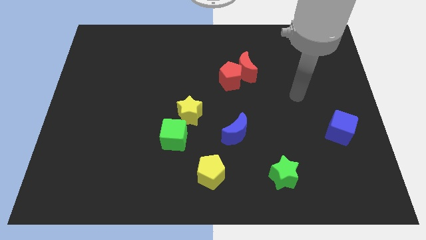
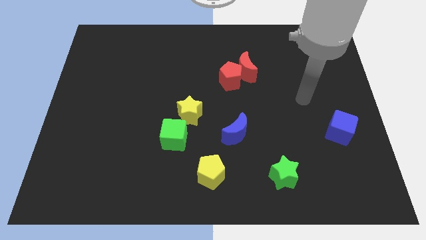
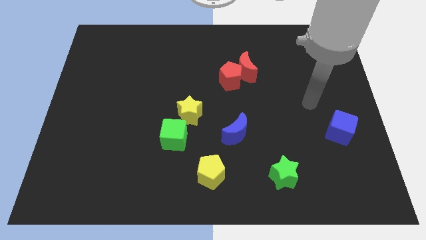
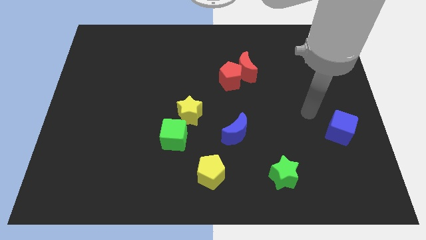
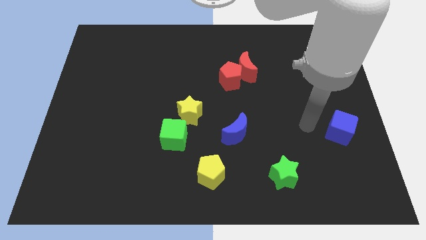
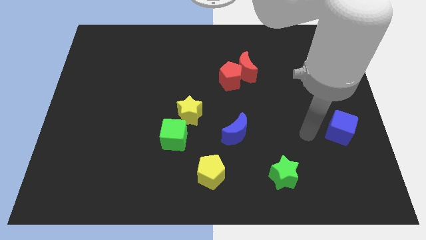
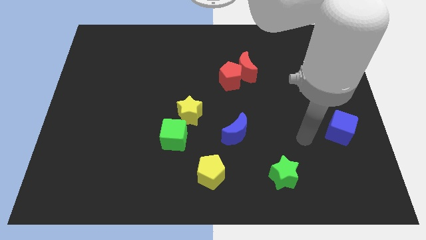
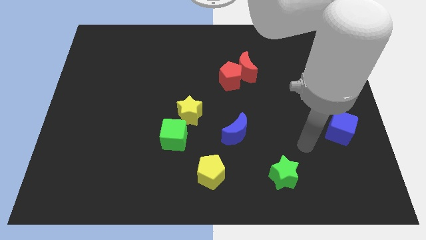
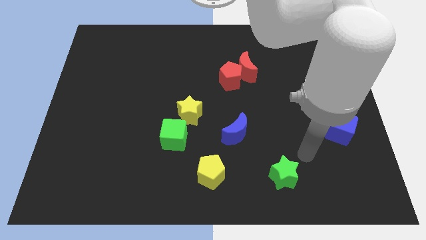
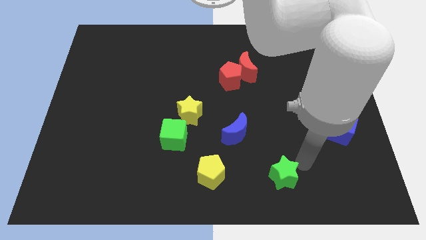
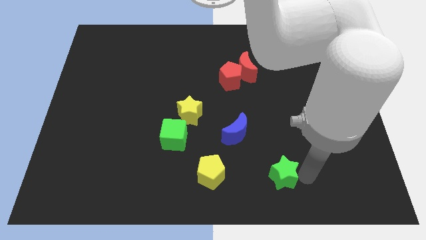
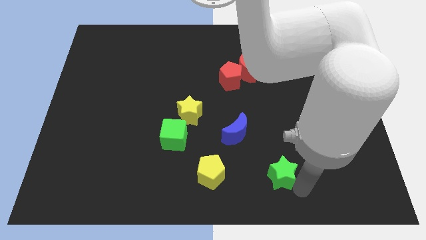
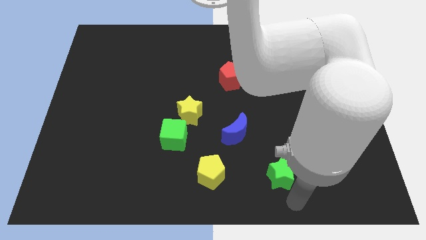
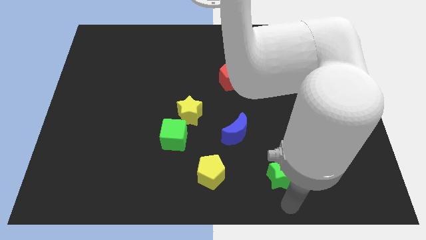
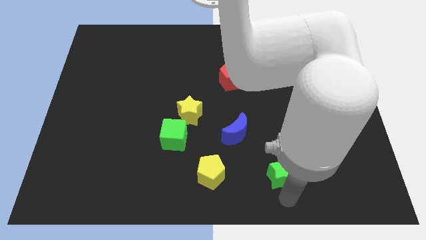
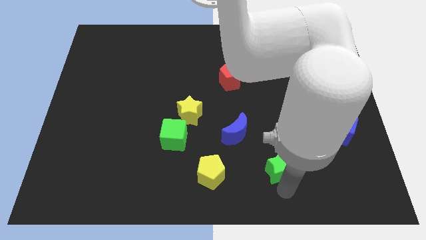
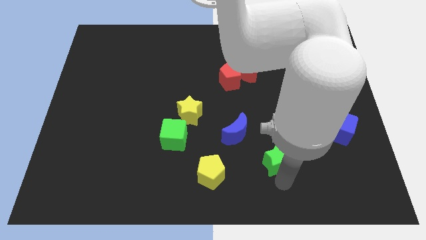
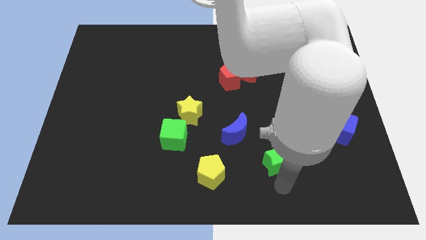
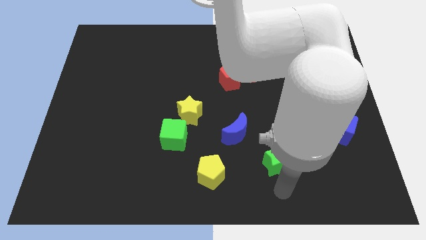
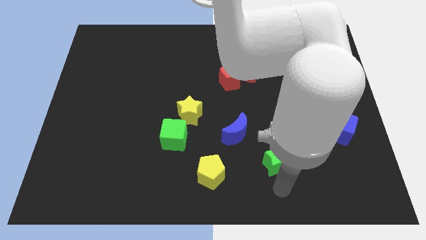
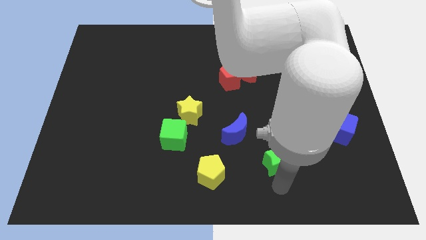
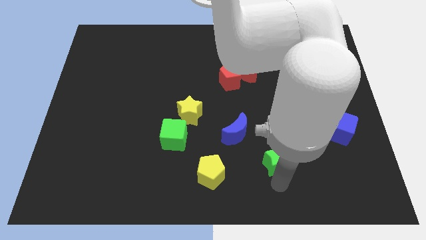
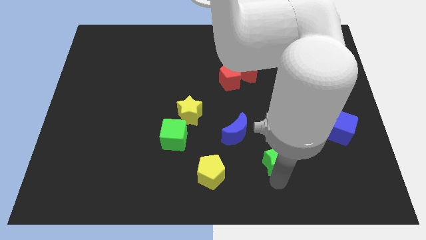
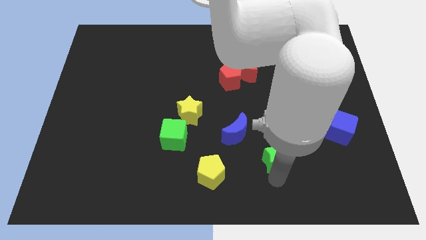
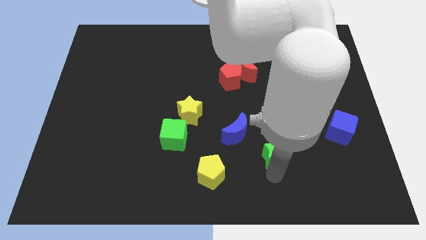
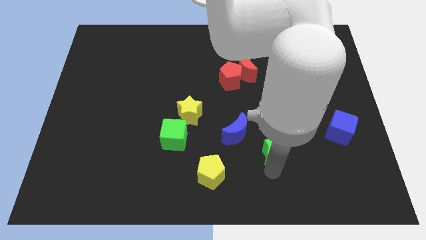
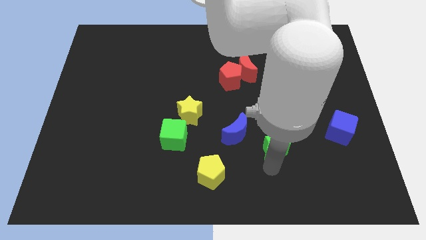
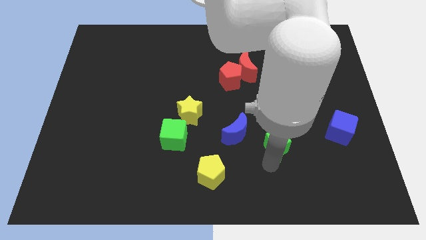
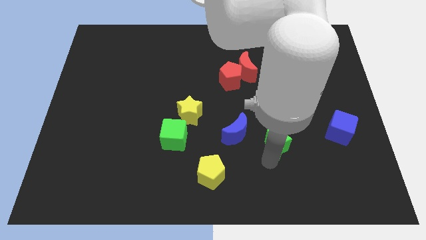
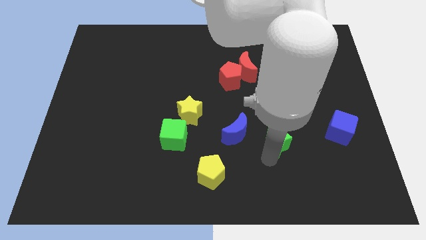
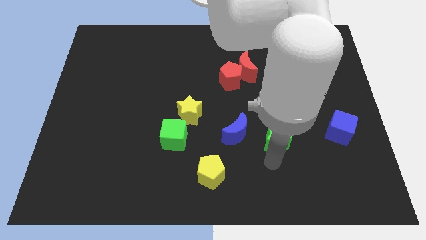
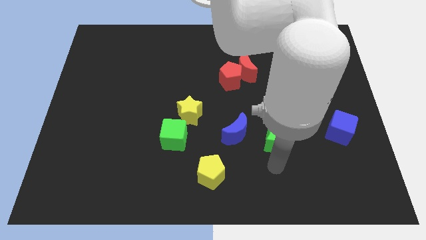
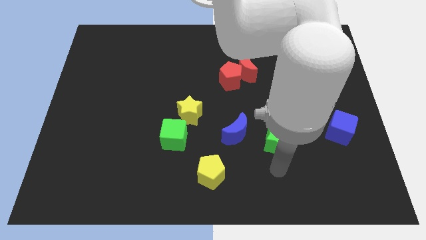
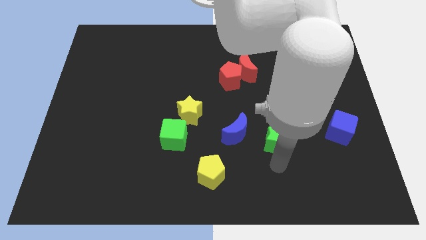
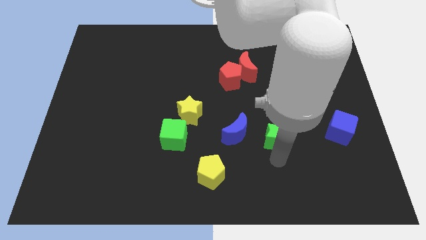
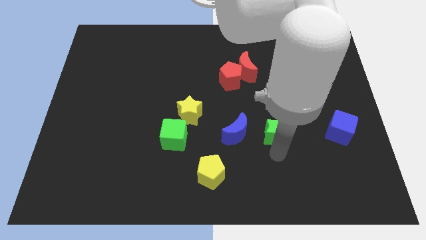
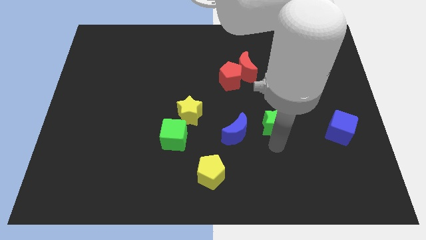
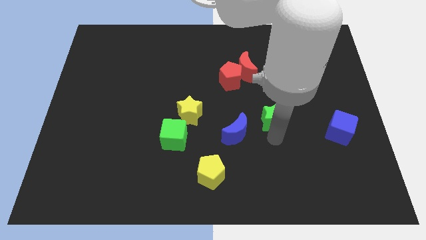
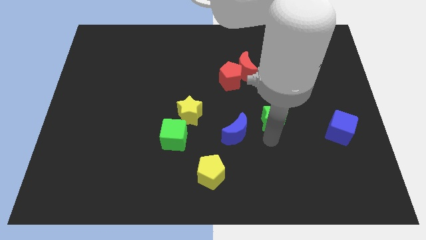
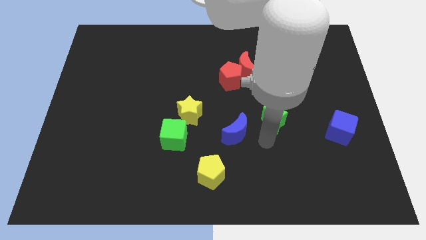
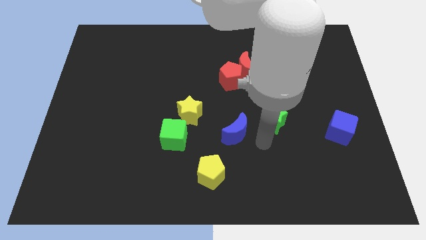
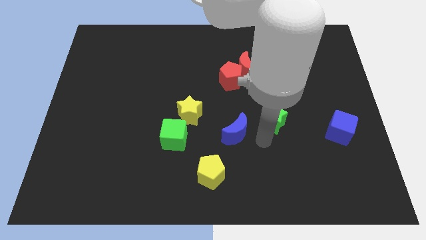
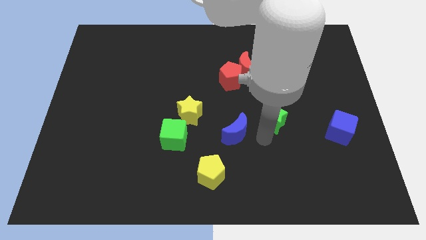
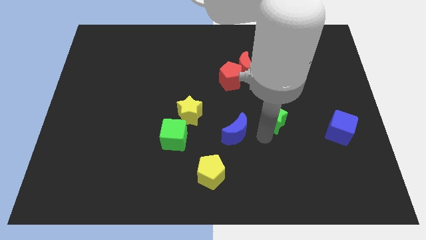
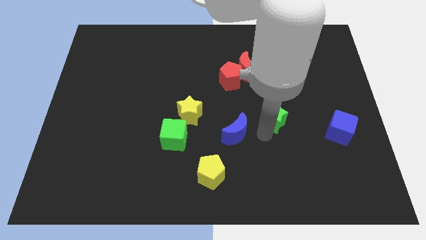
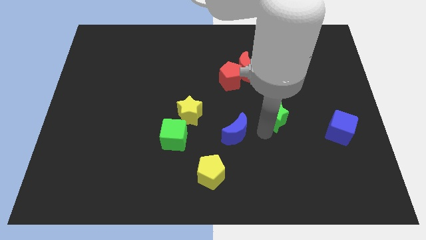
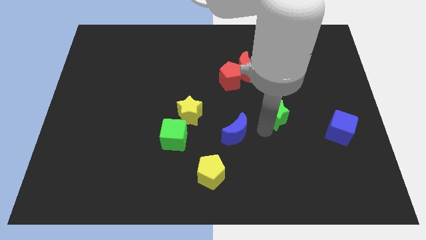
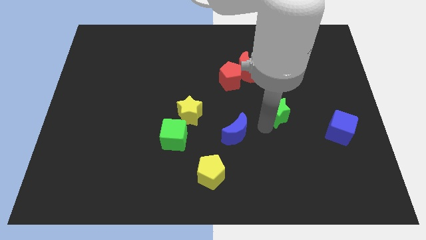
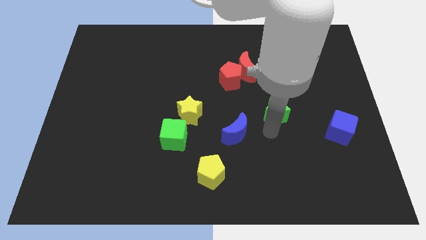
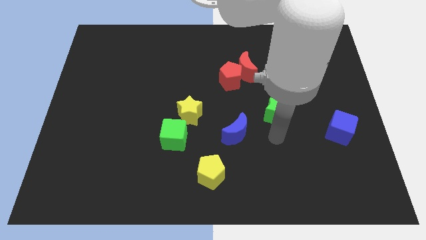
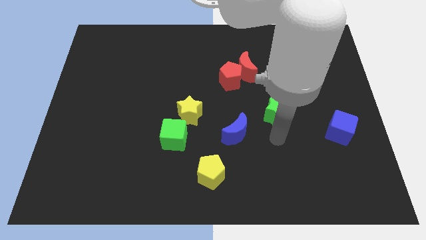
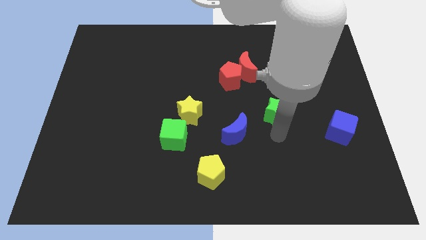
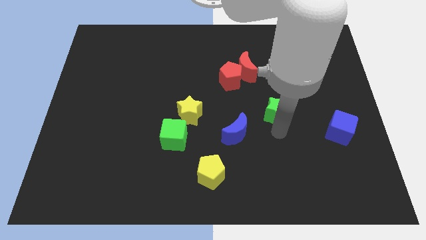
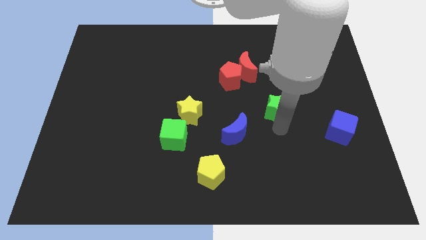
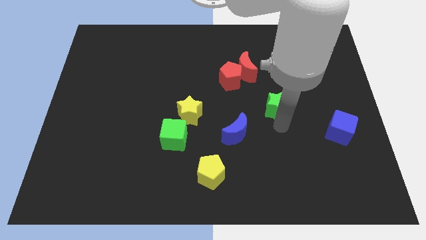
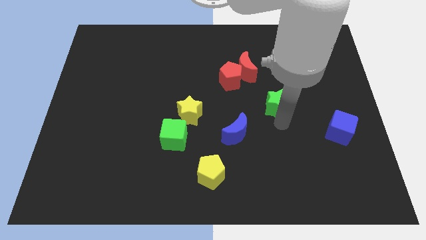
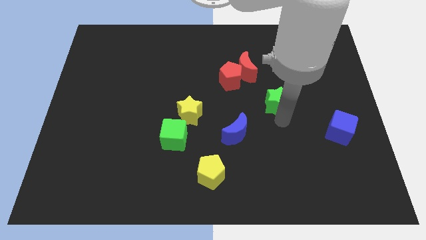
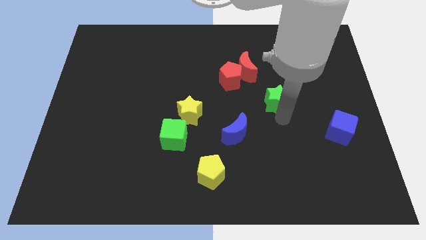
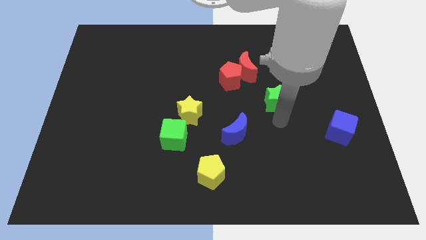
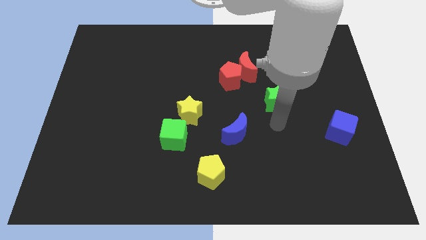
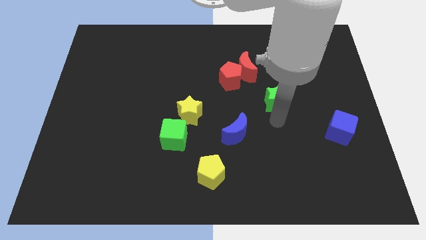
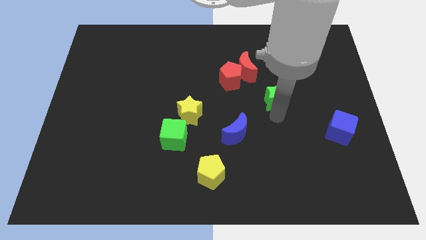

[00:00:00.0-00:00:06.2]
move the green star upwards

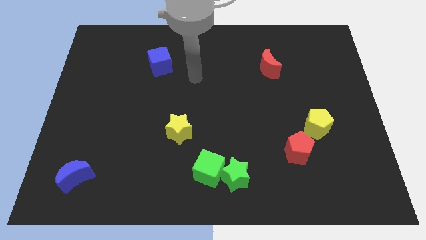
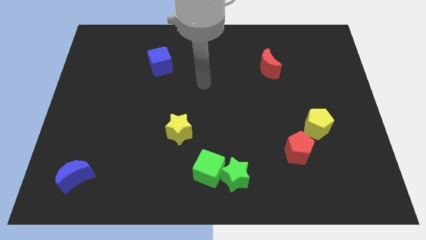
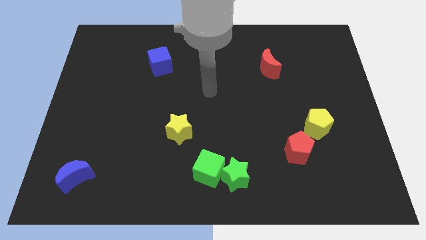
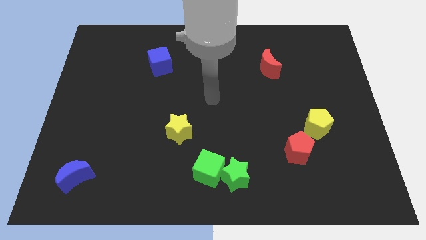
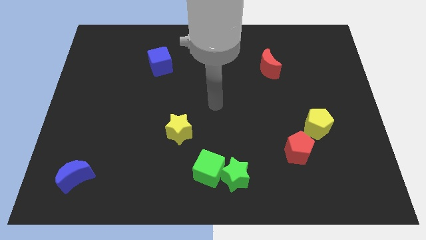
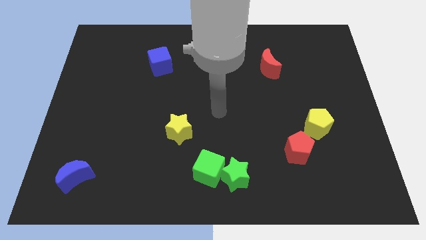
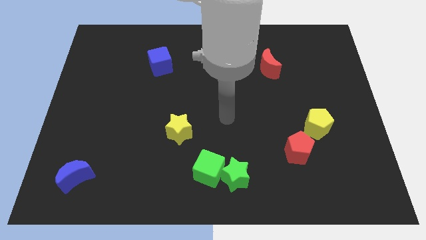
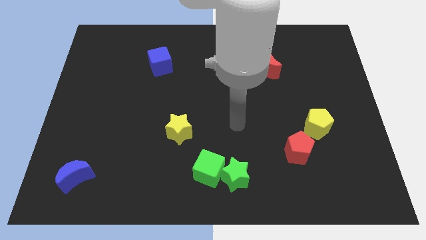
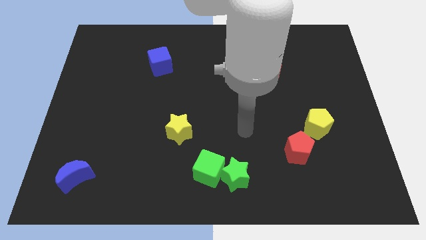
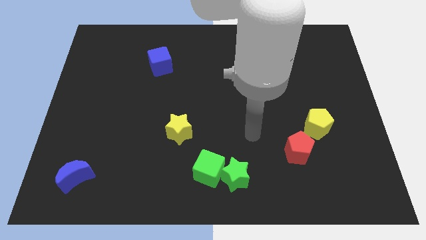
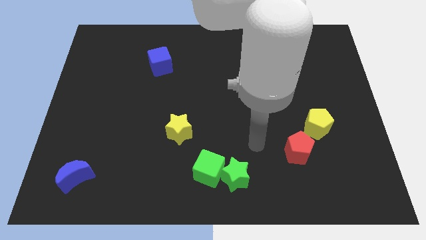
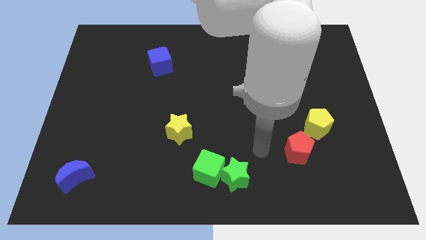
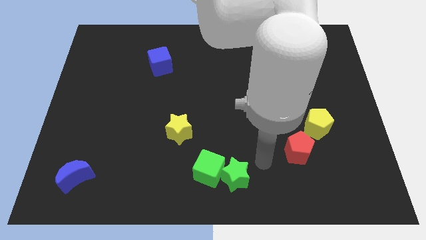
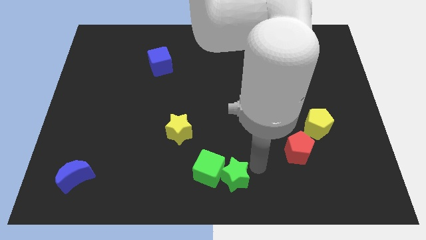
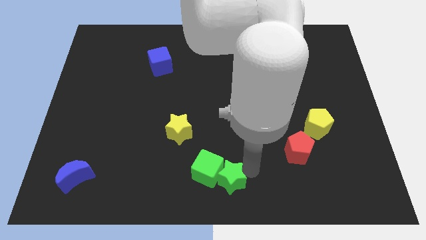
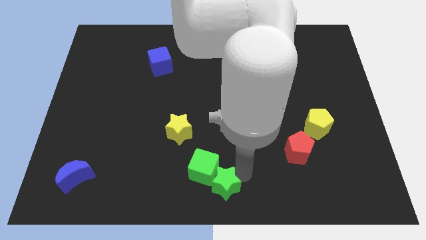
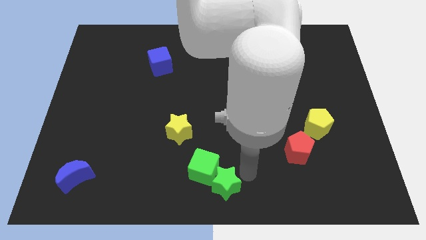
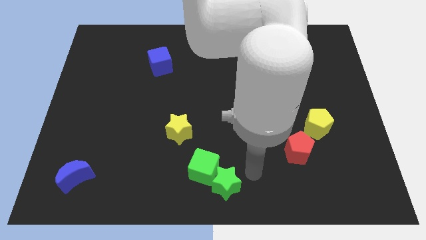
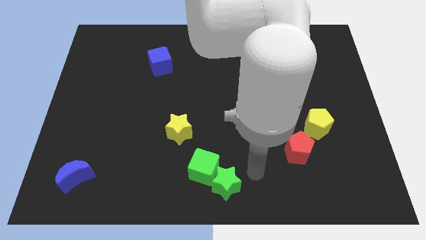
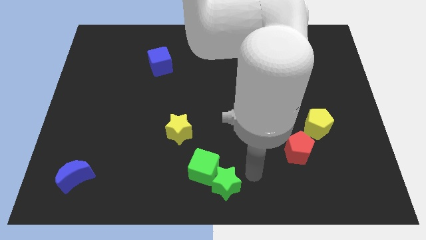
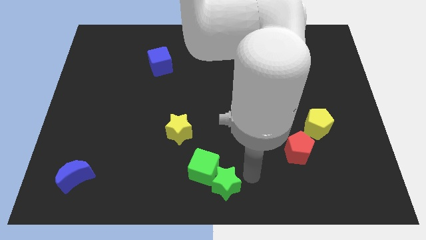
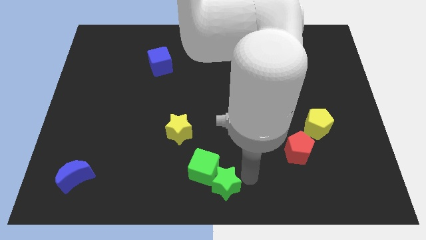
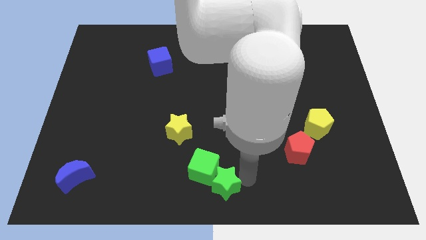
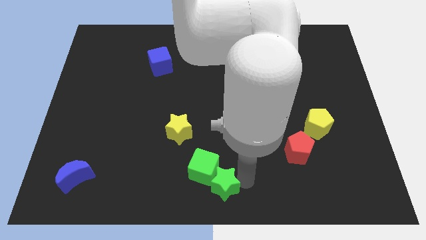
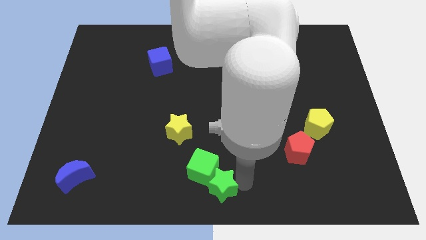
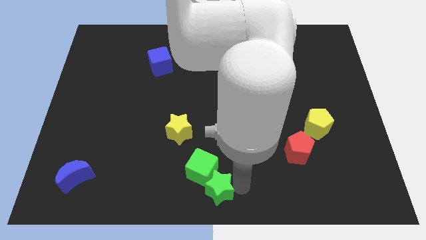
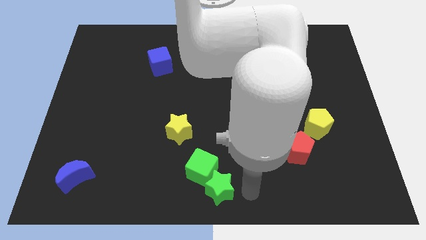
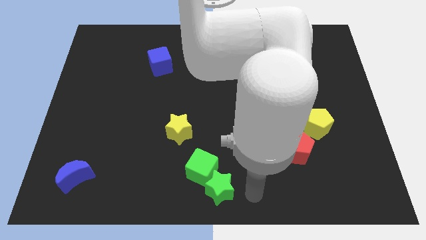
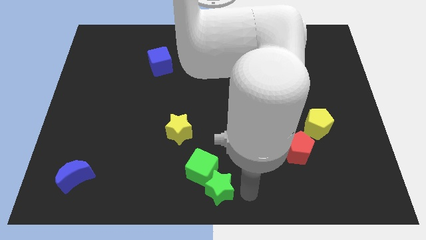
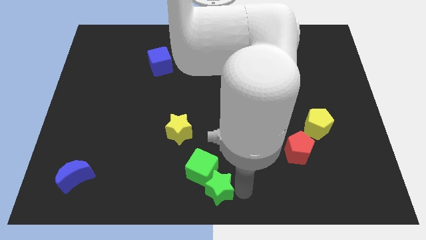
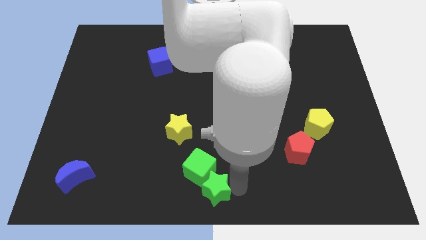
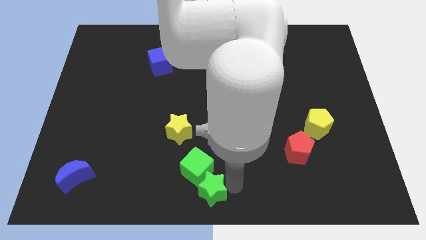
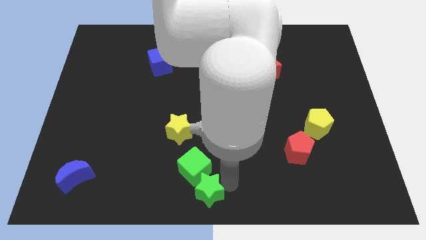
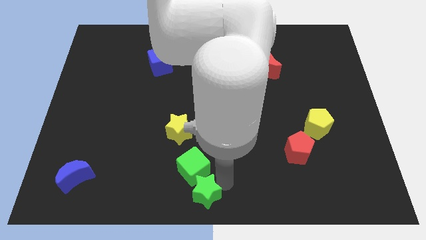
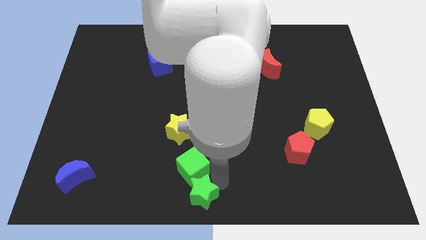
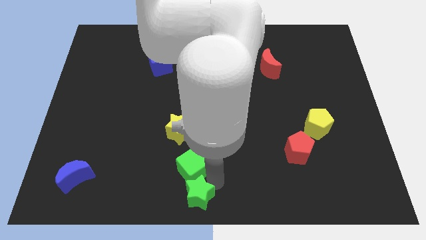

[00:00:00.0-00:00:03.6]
slide the green star a little bit left
